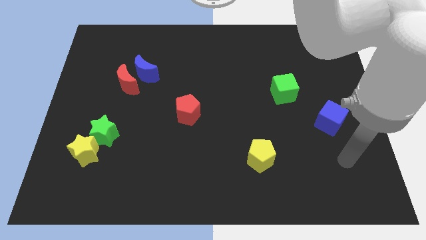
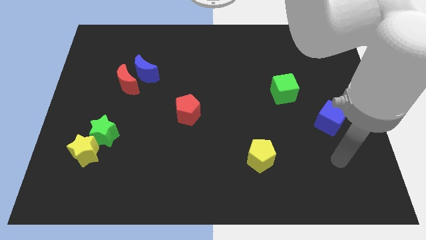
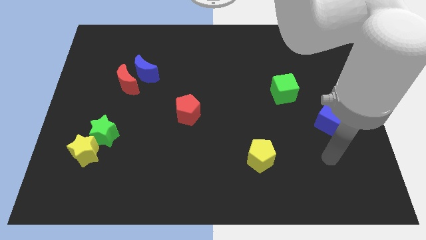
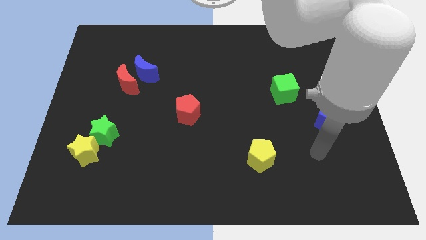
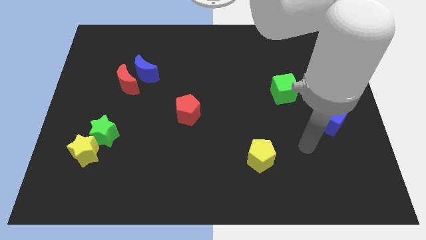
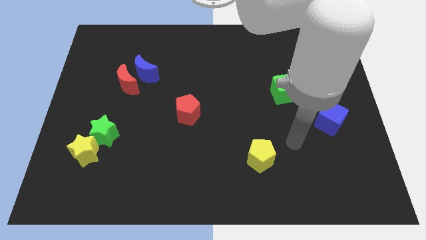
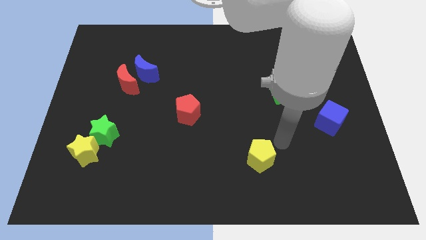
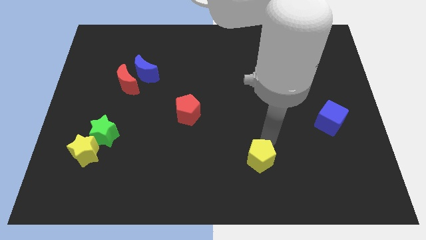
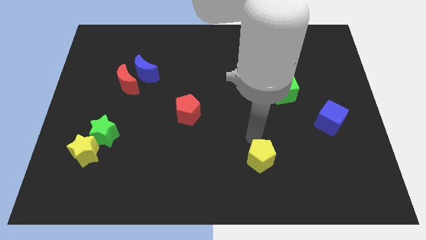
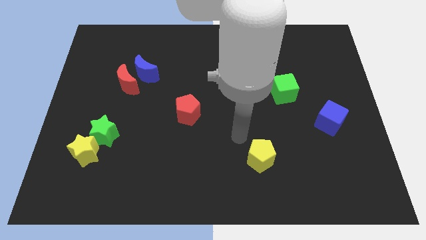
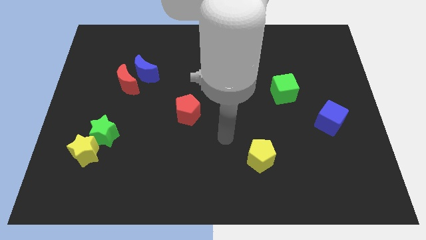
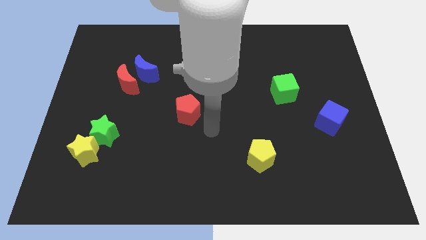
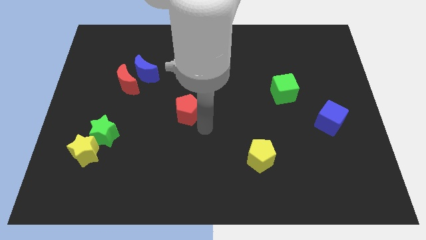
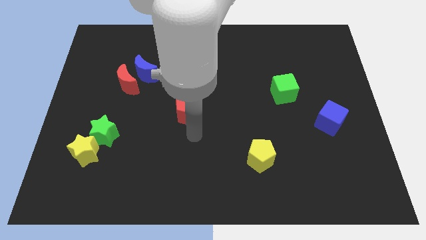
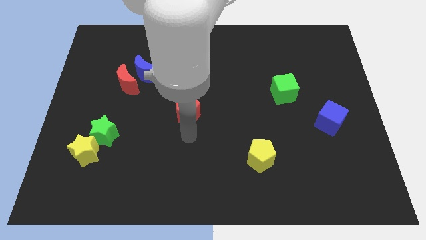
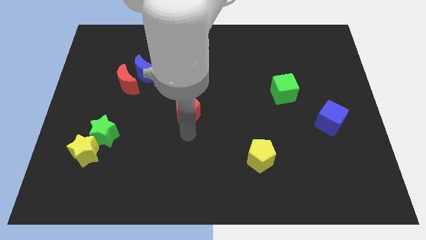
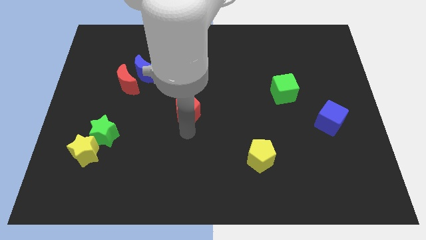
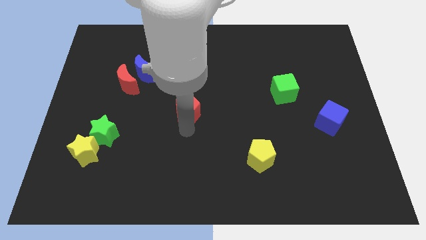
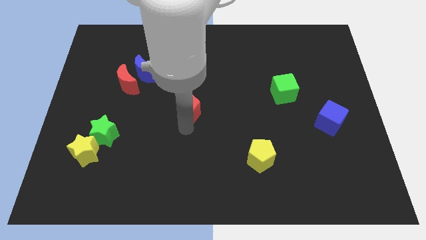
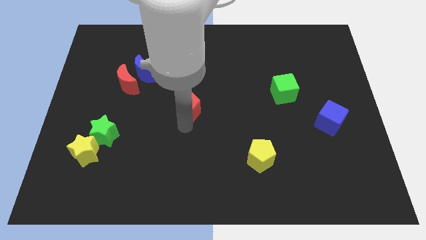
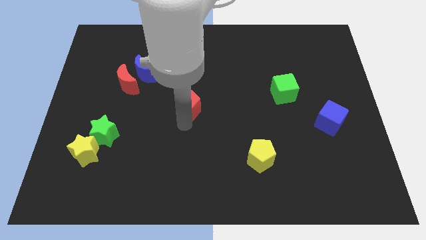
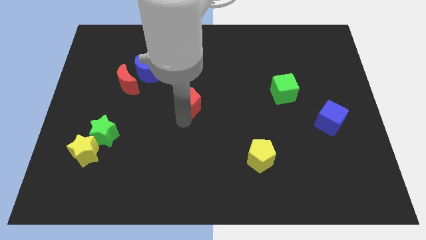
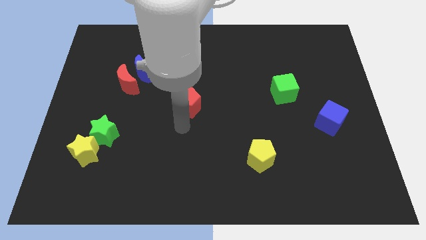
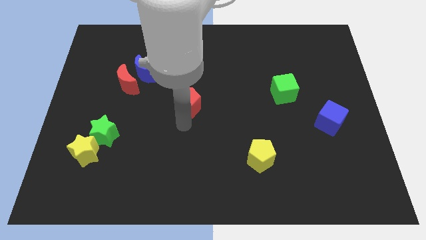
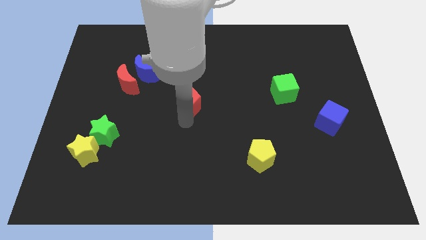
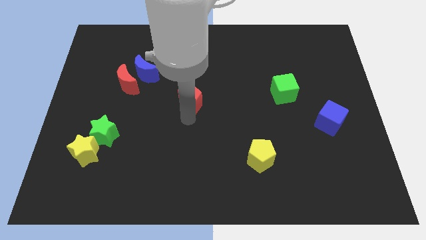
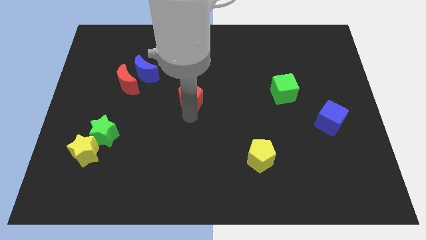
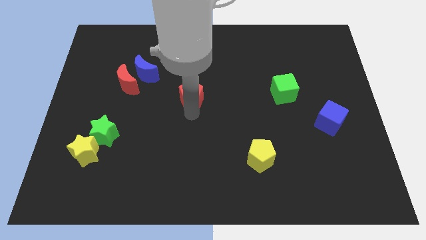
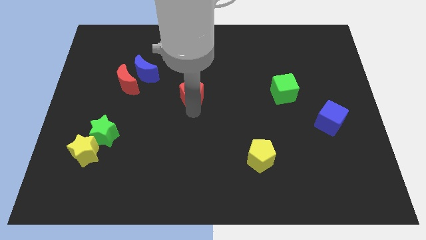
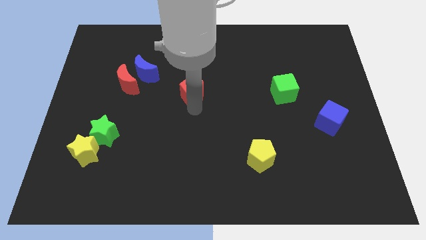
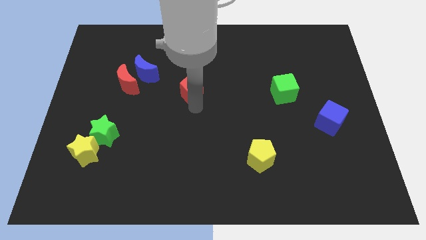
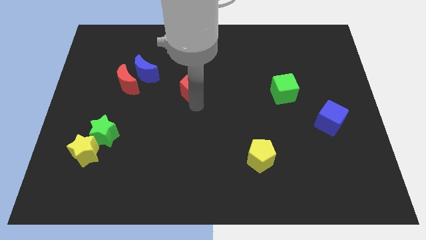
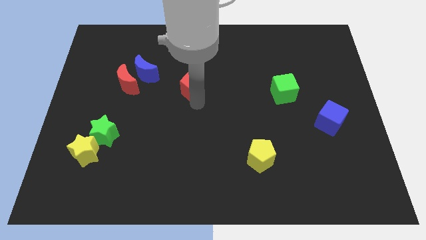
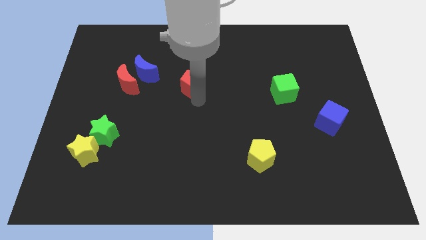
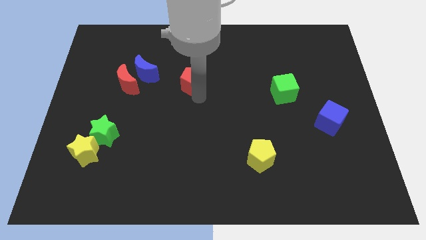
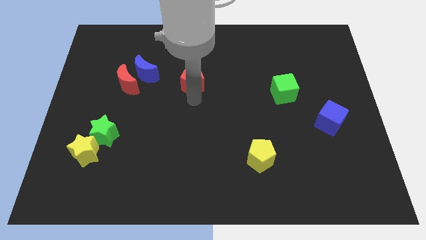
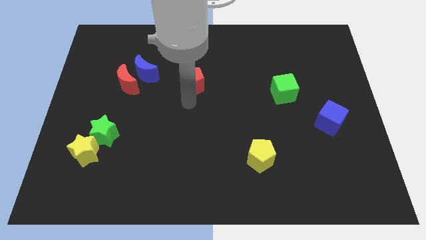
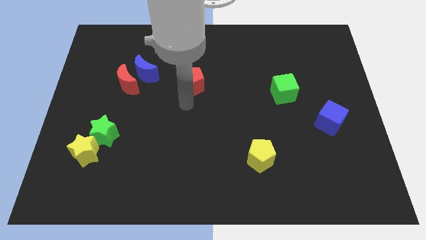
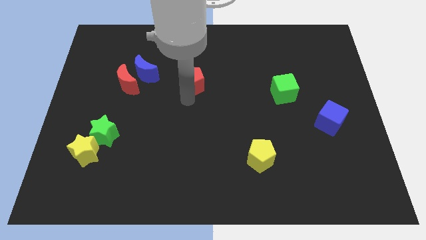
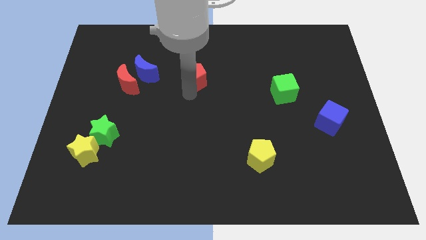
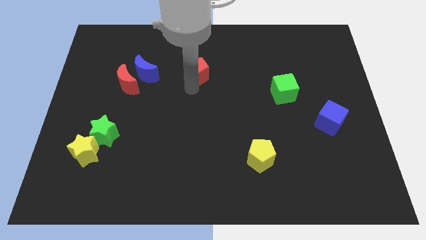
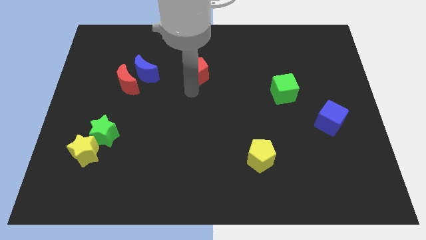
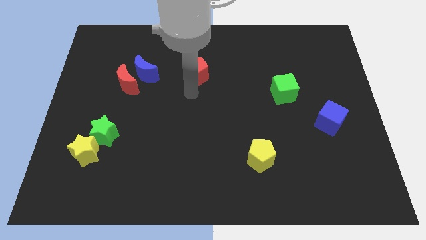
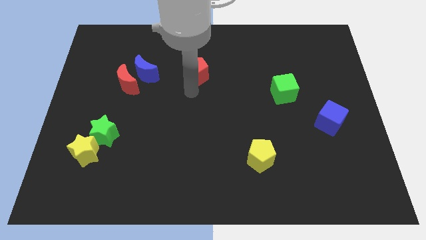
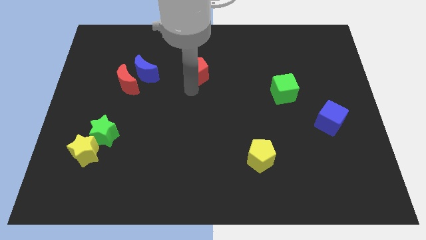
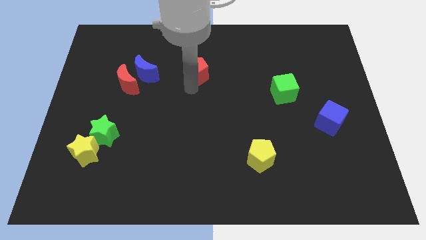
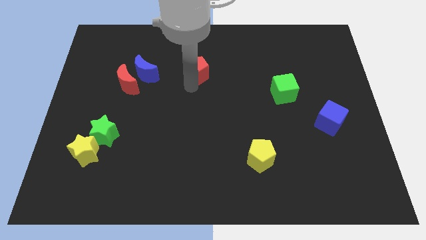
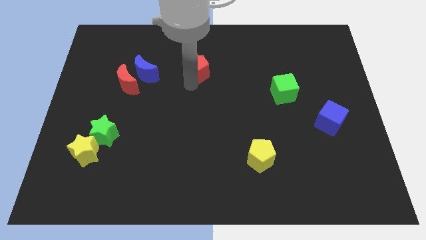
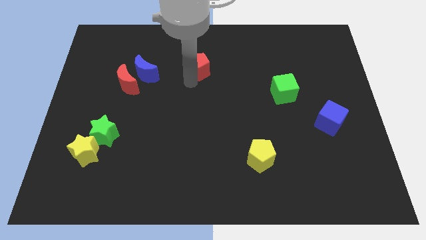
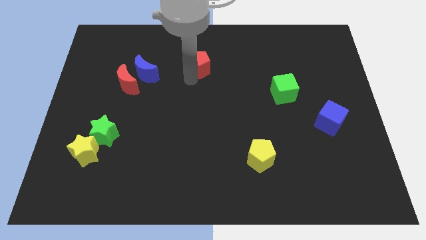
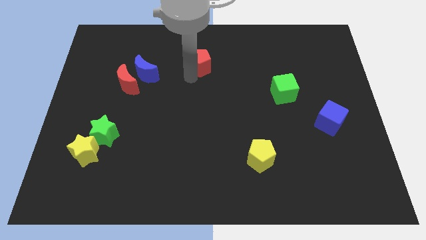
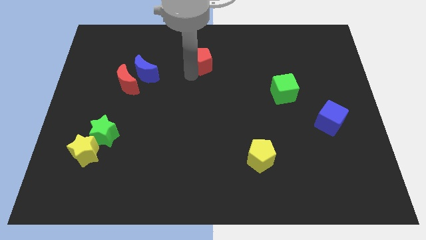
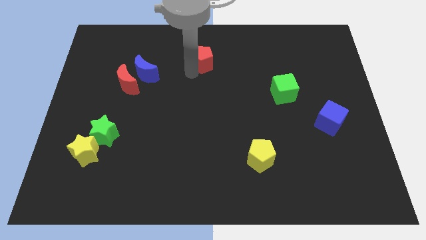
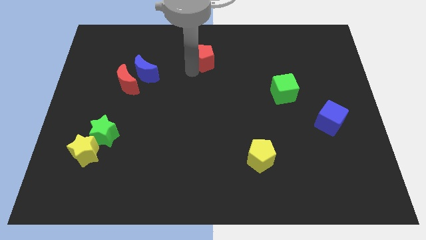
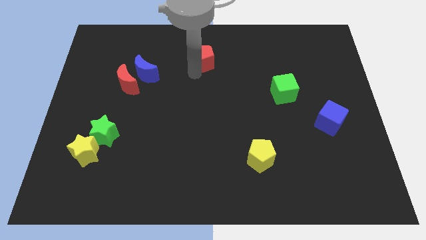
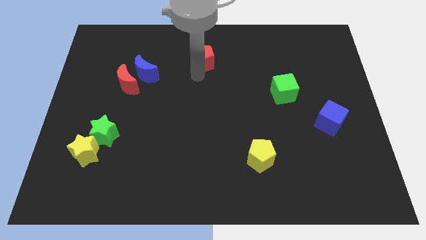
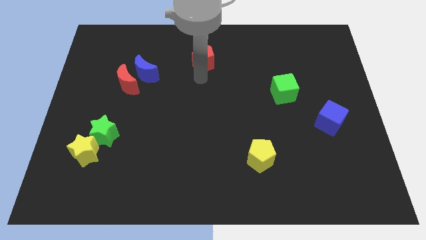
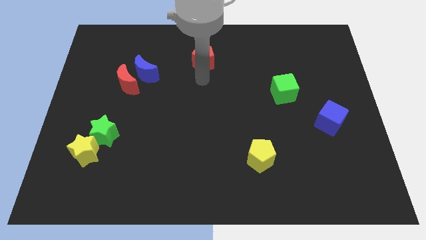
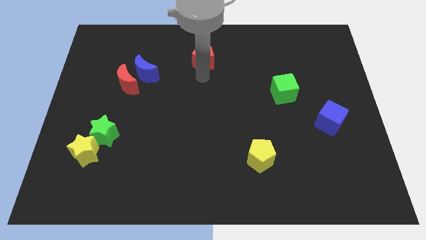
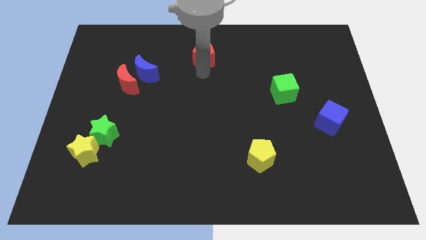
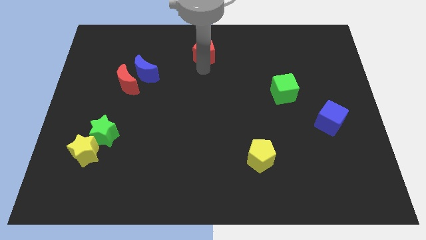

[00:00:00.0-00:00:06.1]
put the red pentagon to the towards your base
